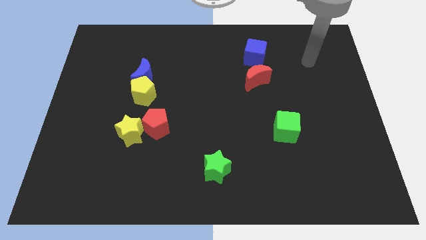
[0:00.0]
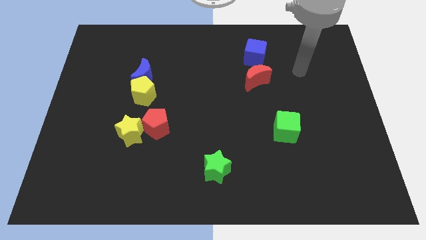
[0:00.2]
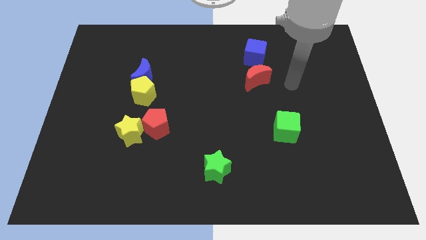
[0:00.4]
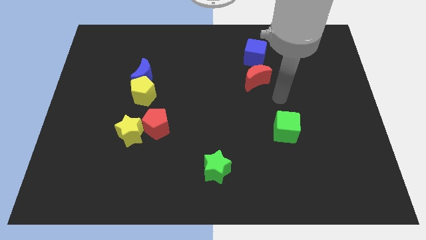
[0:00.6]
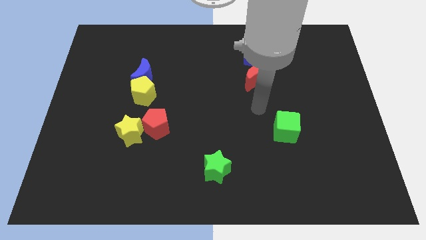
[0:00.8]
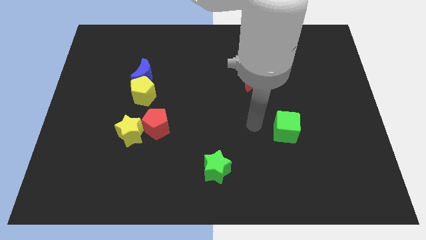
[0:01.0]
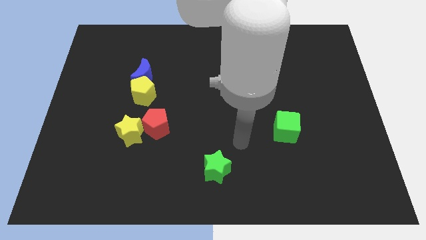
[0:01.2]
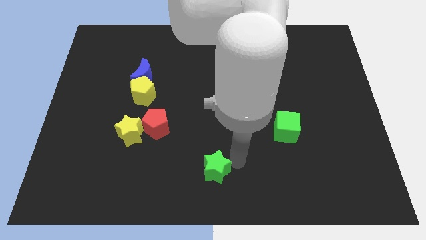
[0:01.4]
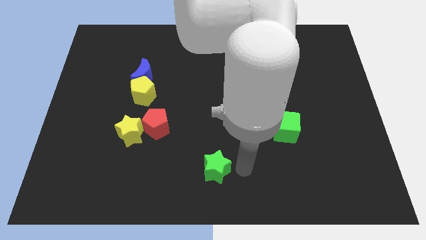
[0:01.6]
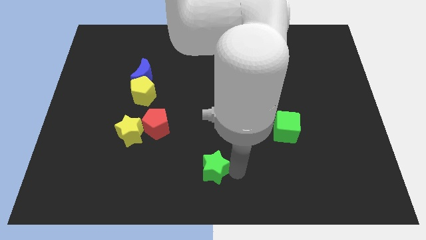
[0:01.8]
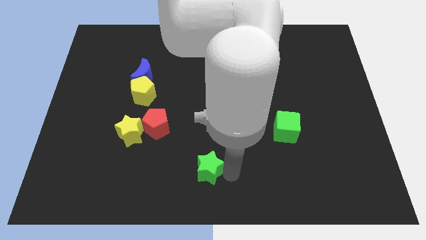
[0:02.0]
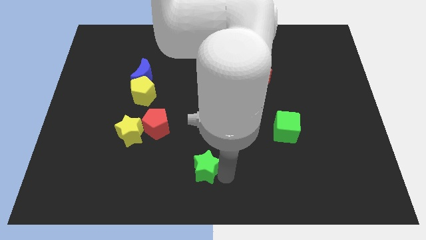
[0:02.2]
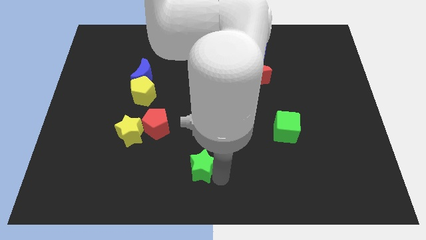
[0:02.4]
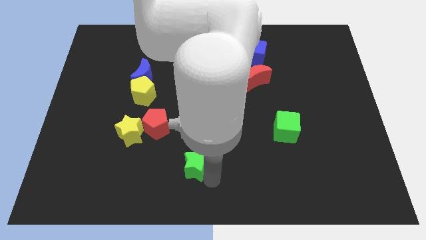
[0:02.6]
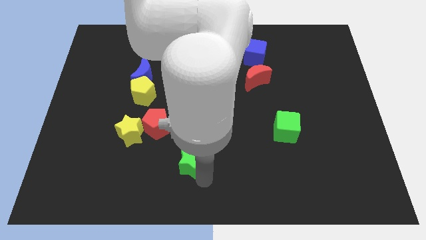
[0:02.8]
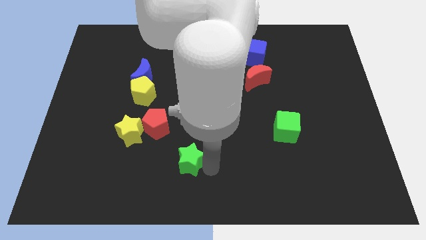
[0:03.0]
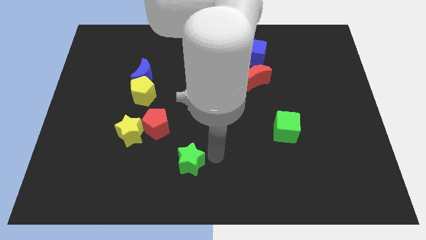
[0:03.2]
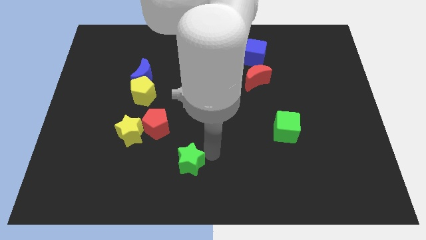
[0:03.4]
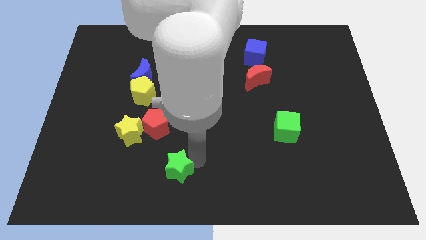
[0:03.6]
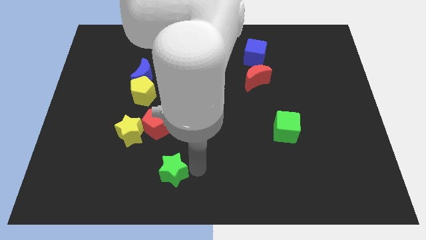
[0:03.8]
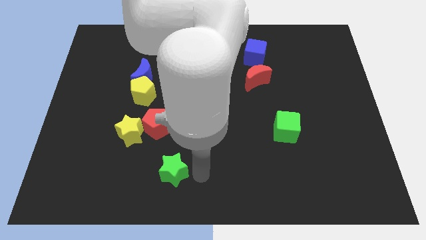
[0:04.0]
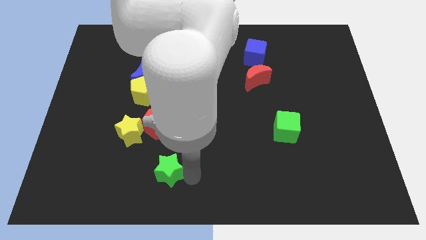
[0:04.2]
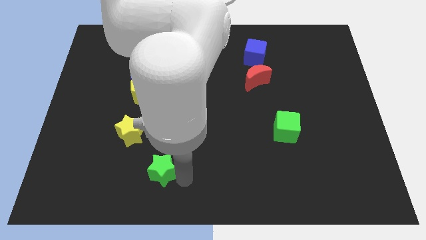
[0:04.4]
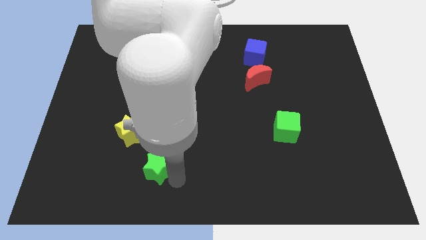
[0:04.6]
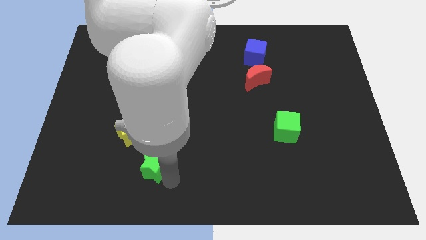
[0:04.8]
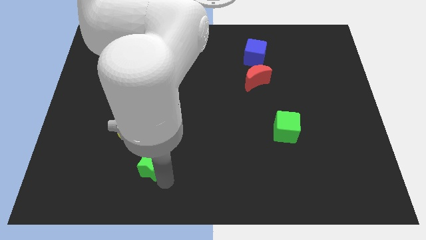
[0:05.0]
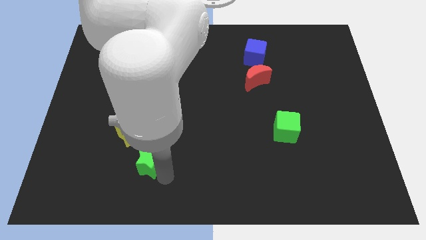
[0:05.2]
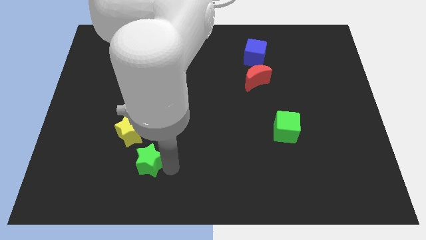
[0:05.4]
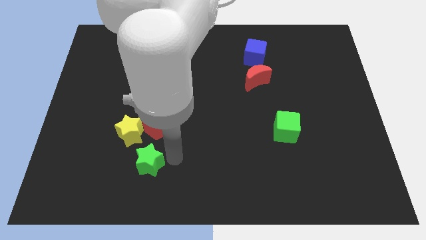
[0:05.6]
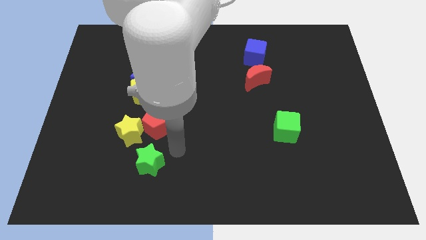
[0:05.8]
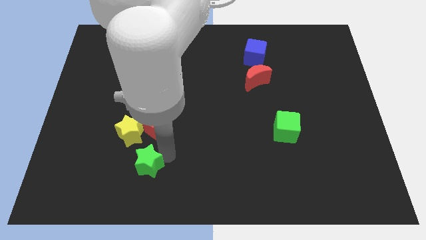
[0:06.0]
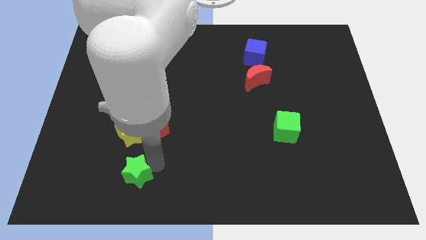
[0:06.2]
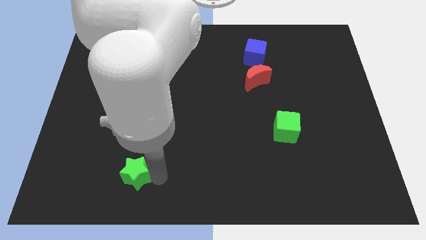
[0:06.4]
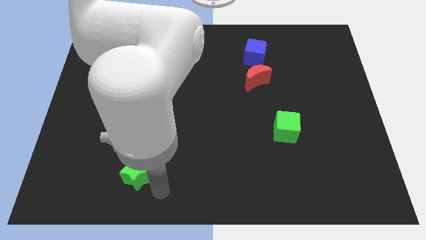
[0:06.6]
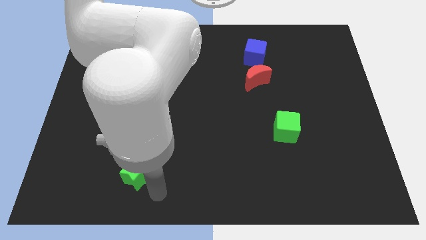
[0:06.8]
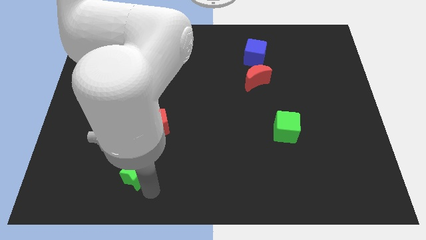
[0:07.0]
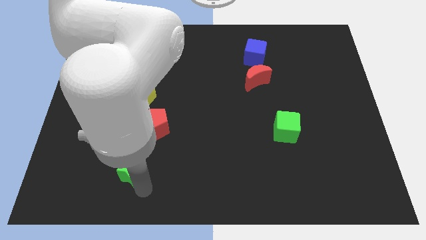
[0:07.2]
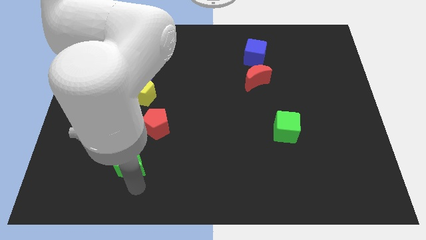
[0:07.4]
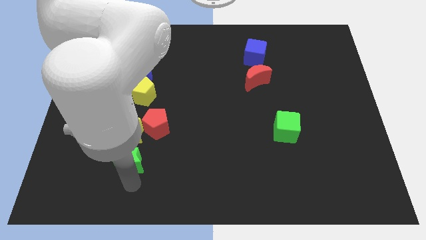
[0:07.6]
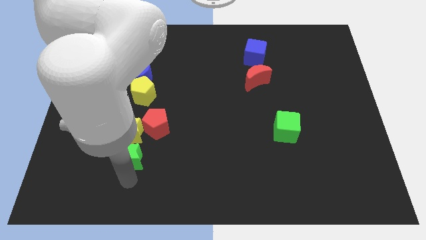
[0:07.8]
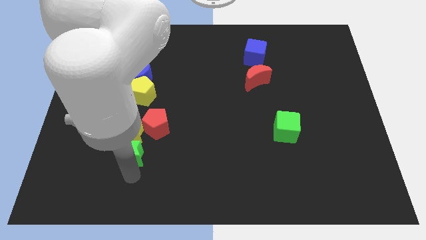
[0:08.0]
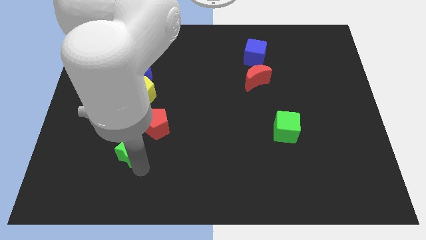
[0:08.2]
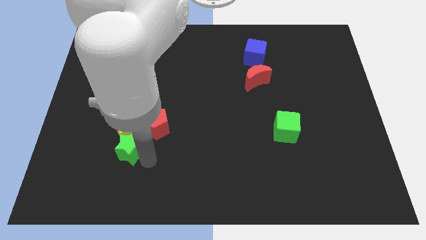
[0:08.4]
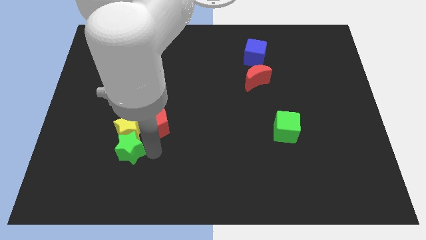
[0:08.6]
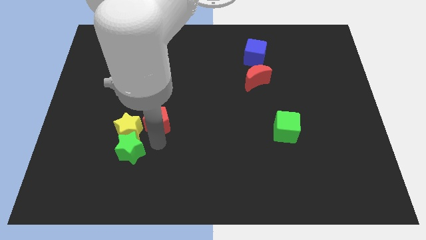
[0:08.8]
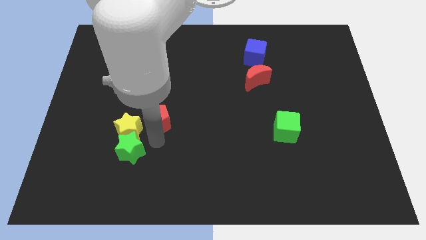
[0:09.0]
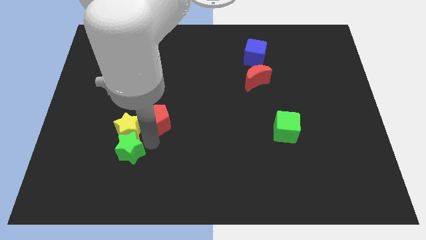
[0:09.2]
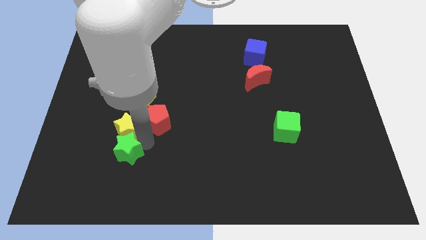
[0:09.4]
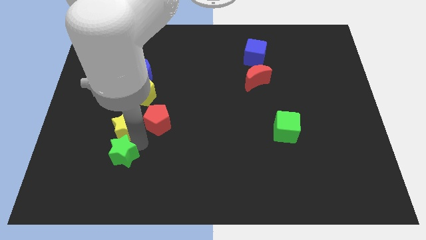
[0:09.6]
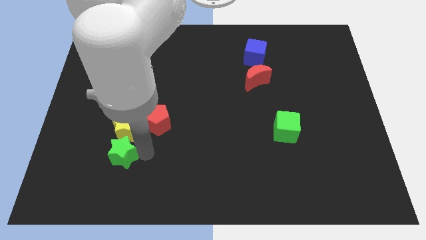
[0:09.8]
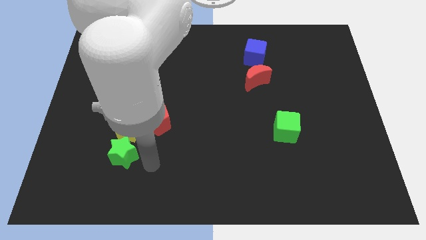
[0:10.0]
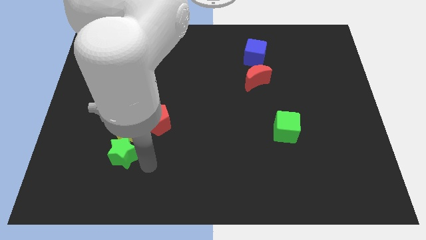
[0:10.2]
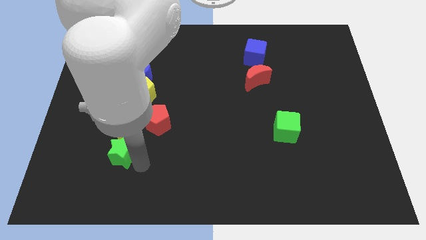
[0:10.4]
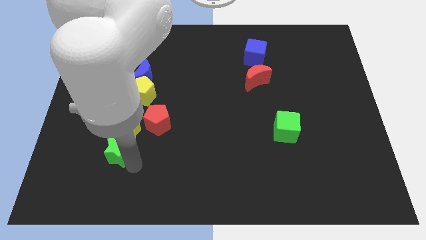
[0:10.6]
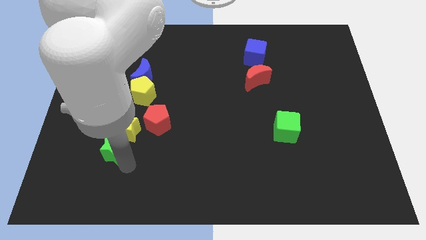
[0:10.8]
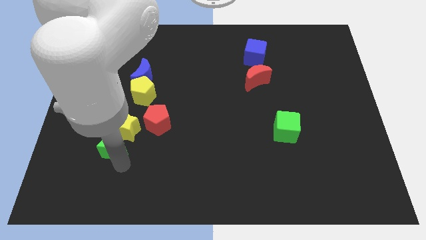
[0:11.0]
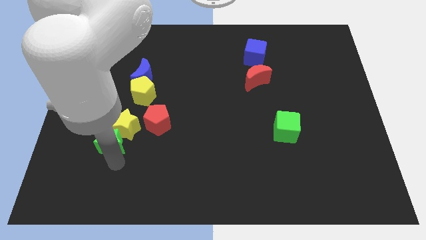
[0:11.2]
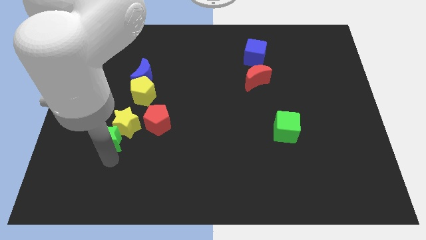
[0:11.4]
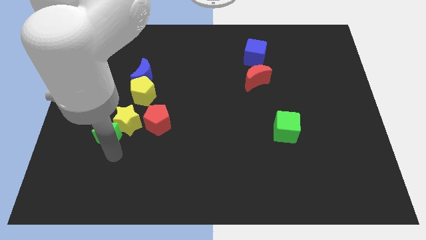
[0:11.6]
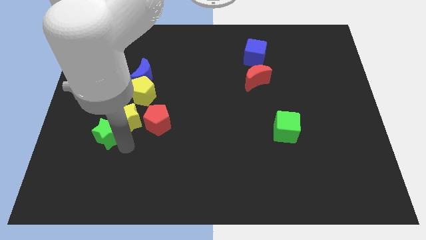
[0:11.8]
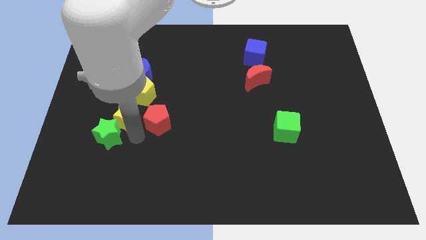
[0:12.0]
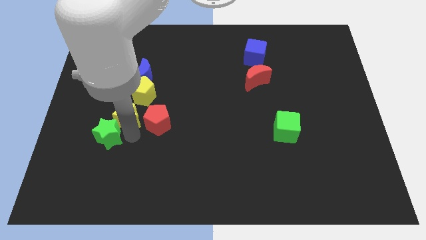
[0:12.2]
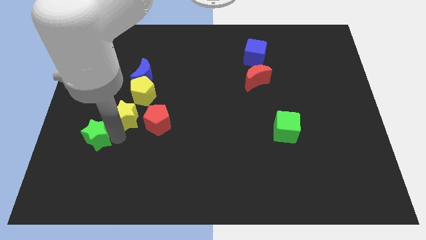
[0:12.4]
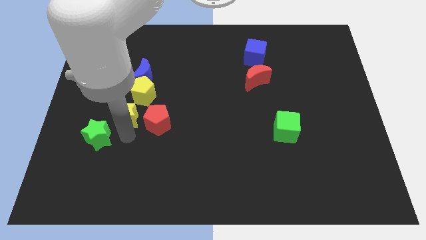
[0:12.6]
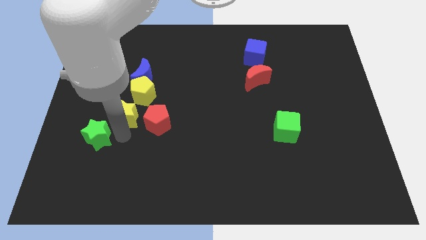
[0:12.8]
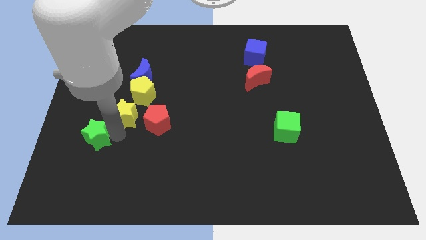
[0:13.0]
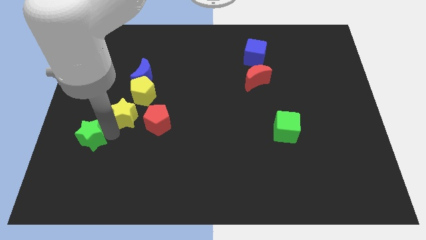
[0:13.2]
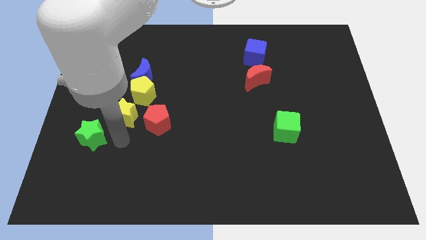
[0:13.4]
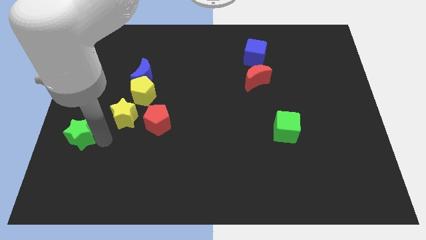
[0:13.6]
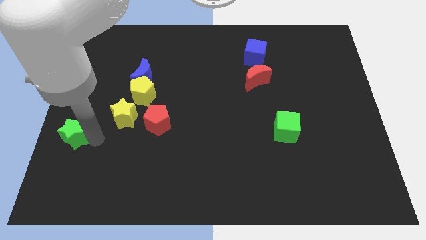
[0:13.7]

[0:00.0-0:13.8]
put the green star to the left side
